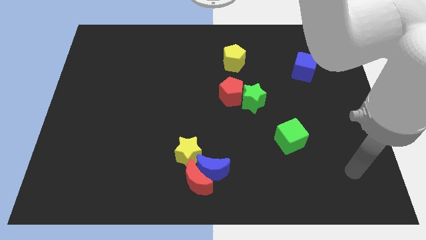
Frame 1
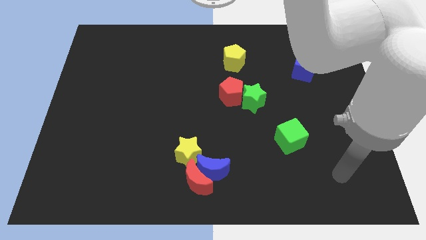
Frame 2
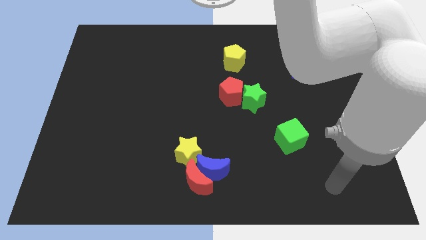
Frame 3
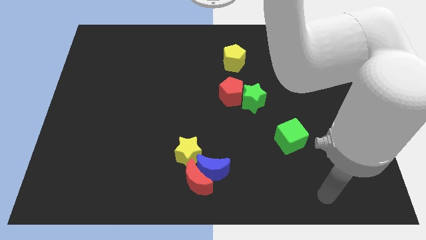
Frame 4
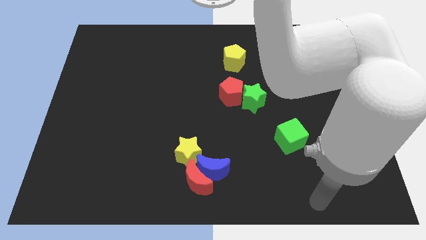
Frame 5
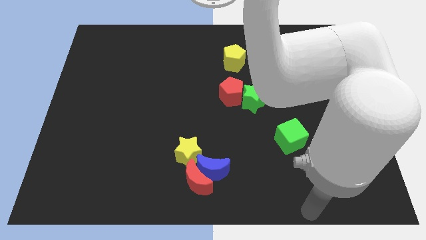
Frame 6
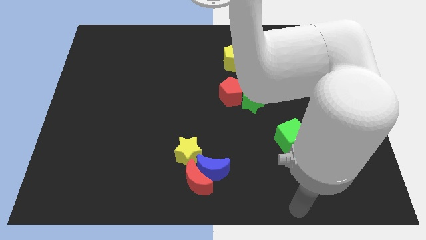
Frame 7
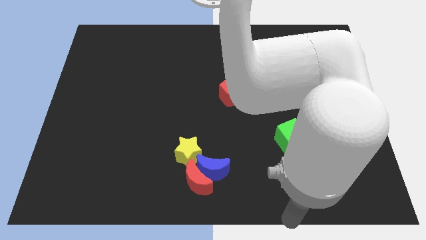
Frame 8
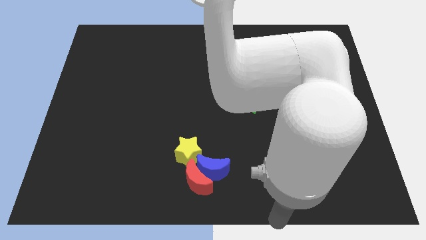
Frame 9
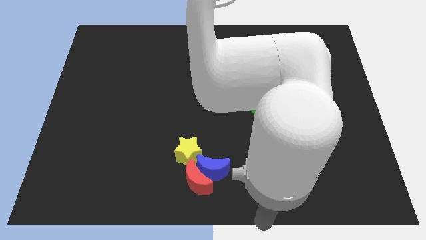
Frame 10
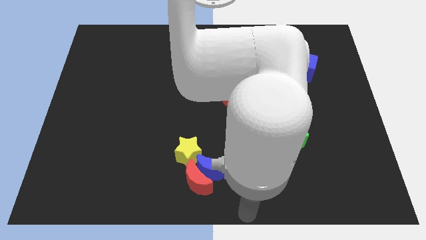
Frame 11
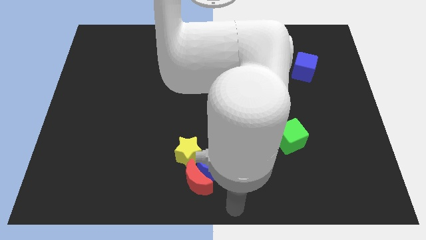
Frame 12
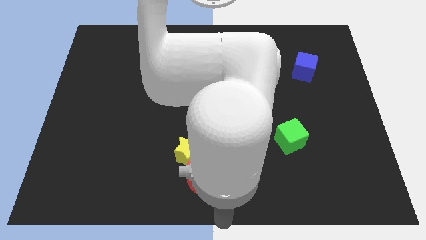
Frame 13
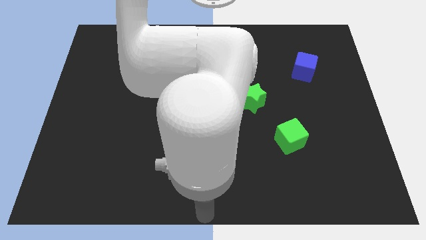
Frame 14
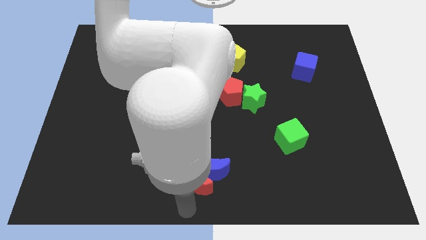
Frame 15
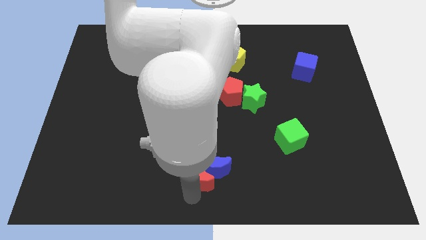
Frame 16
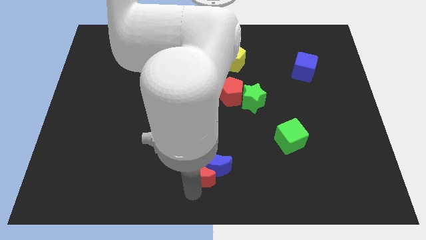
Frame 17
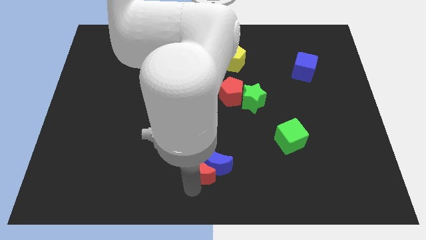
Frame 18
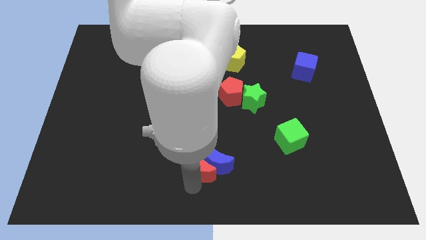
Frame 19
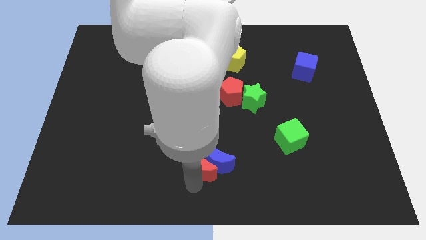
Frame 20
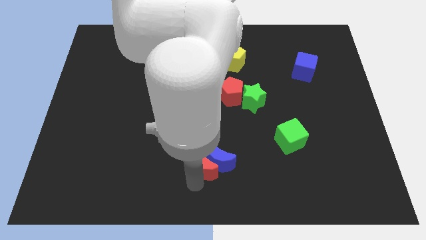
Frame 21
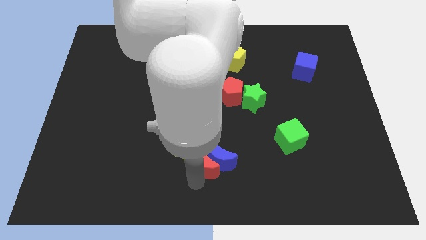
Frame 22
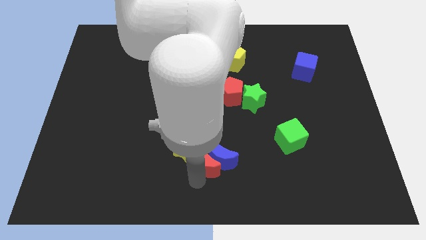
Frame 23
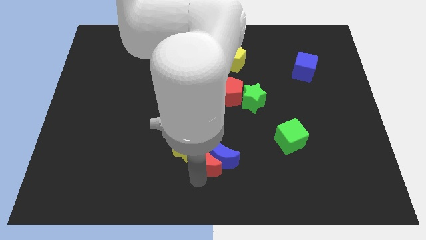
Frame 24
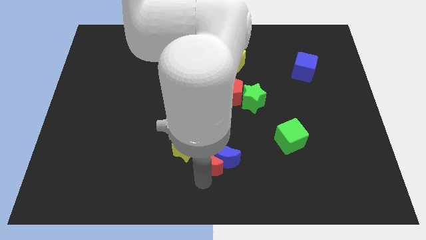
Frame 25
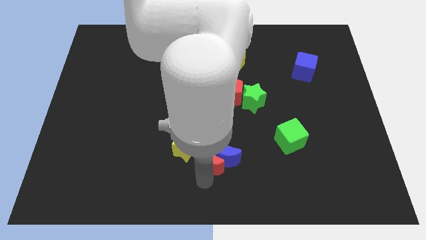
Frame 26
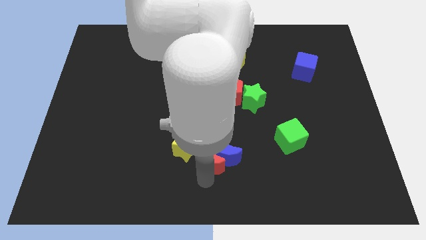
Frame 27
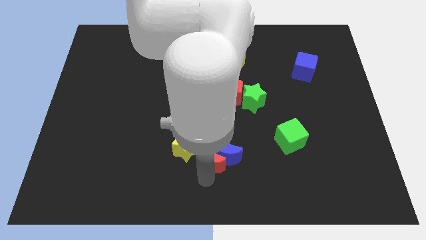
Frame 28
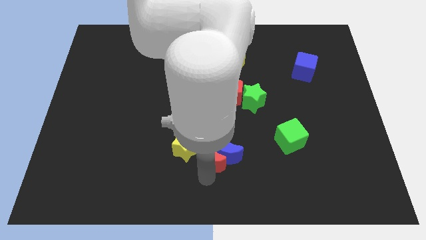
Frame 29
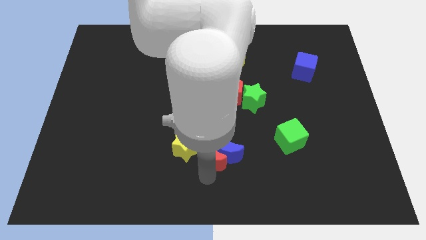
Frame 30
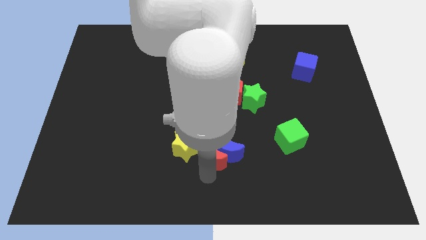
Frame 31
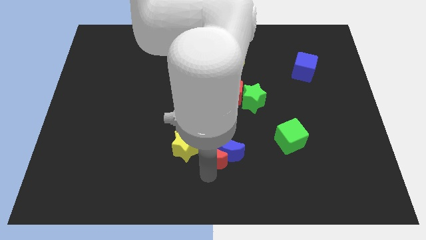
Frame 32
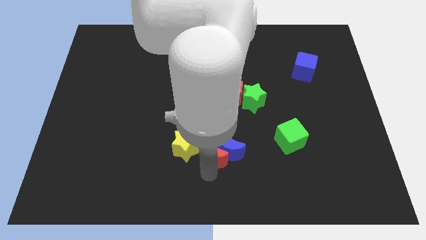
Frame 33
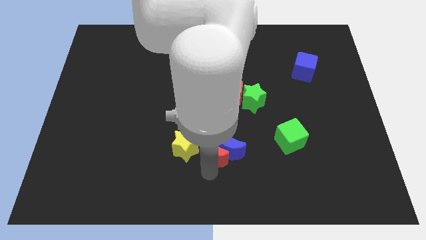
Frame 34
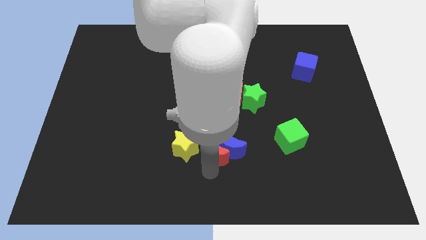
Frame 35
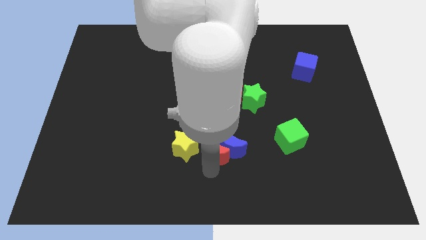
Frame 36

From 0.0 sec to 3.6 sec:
slightly move the blue moon diagonally upwards and to the right

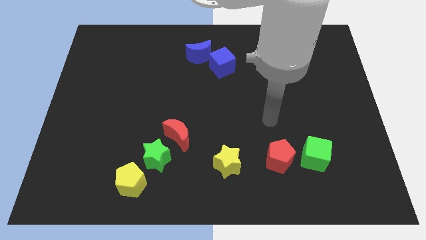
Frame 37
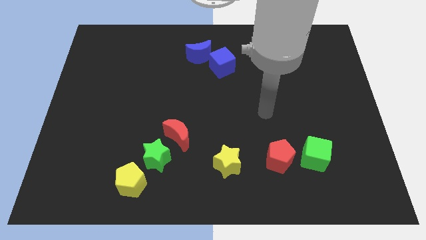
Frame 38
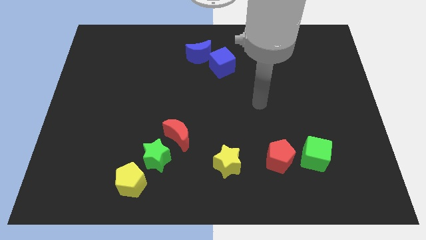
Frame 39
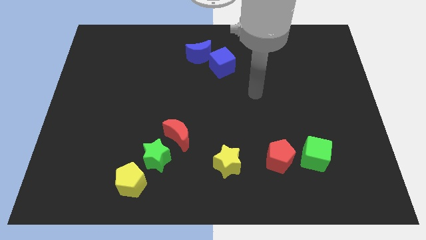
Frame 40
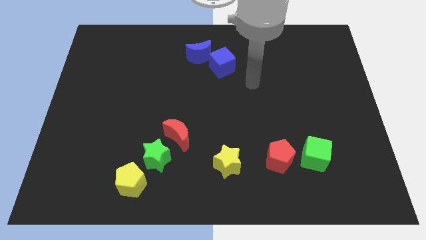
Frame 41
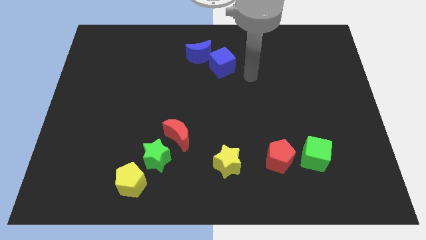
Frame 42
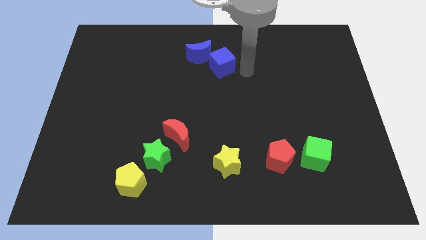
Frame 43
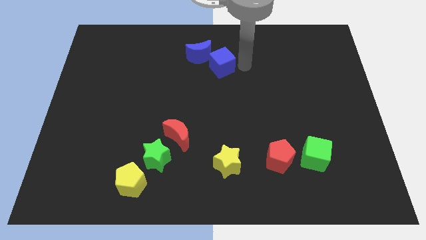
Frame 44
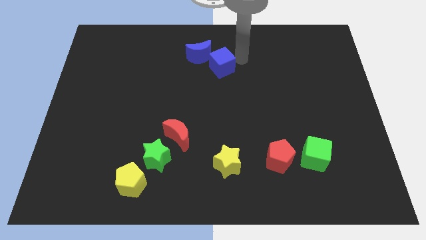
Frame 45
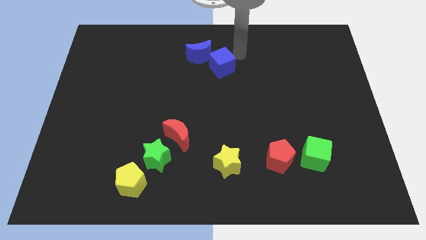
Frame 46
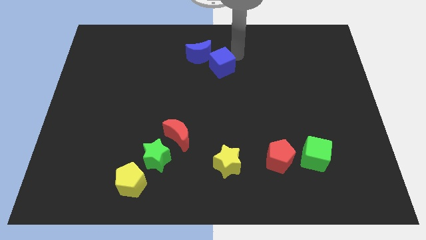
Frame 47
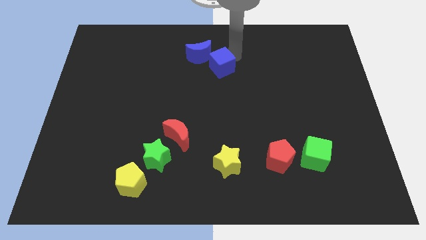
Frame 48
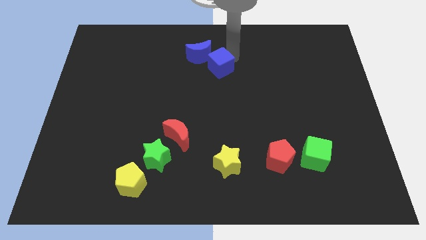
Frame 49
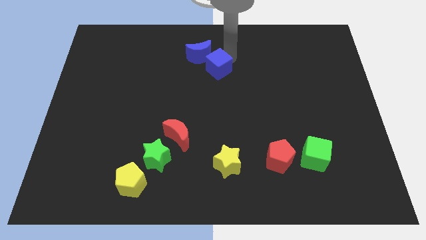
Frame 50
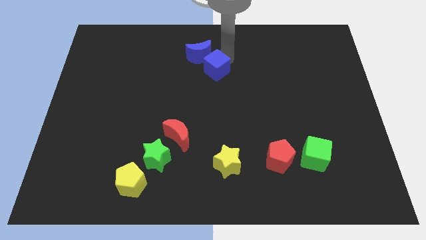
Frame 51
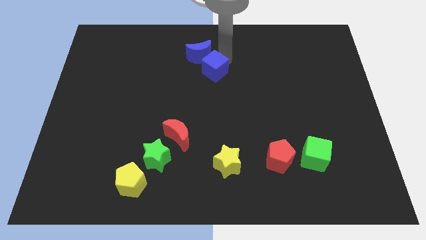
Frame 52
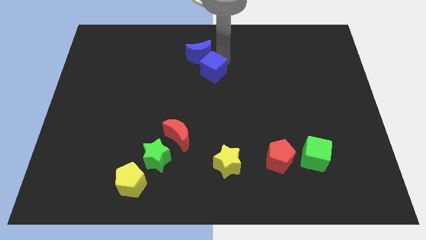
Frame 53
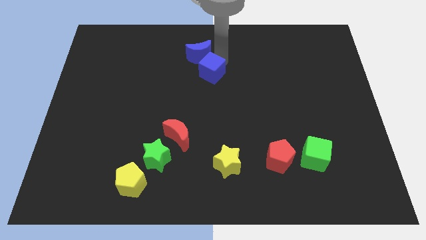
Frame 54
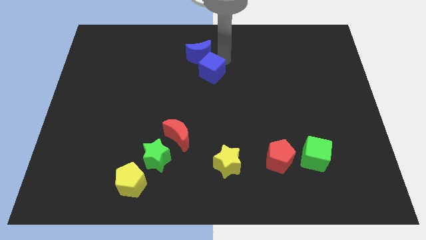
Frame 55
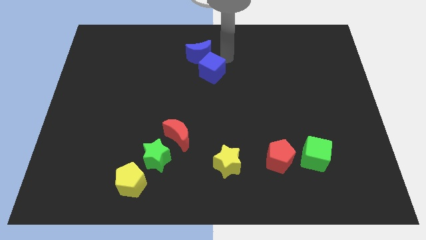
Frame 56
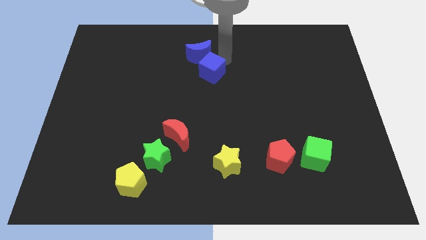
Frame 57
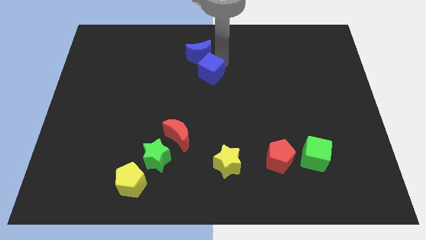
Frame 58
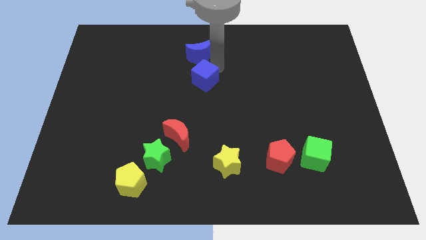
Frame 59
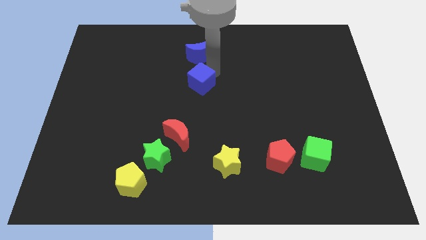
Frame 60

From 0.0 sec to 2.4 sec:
push the blue cube a bit downwards and then to the left

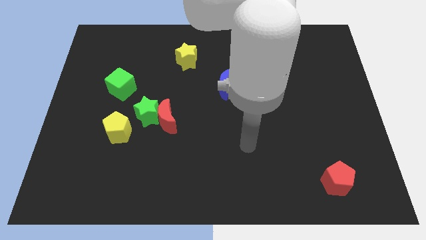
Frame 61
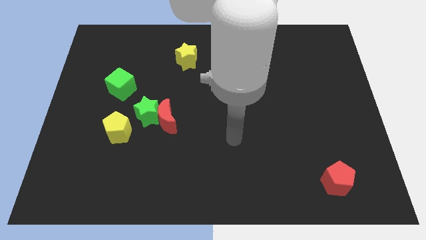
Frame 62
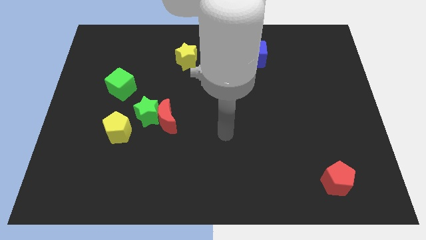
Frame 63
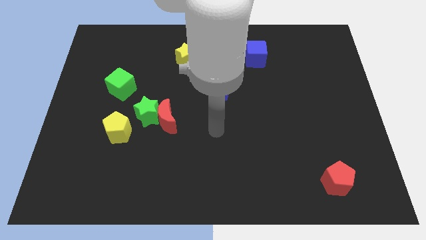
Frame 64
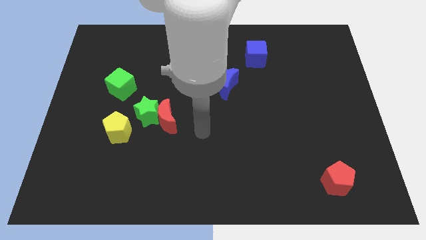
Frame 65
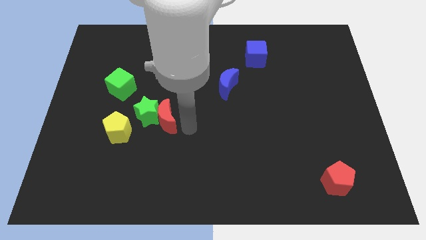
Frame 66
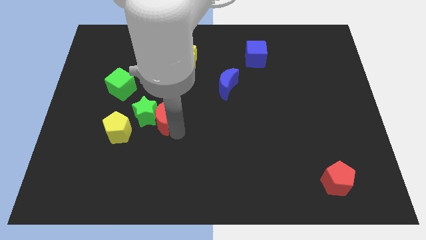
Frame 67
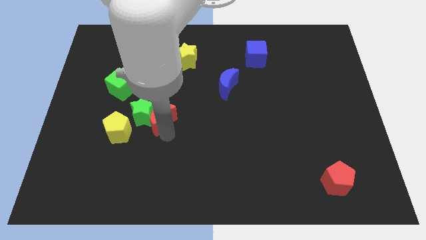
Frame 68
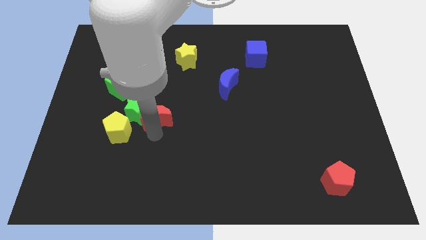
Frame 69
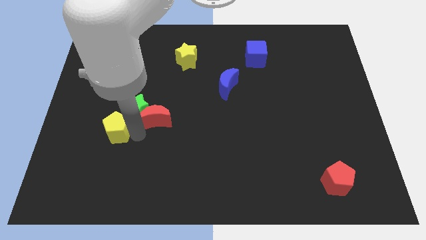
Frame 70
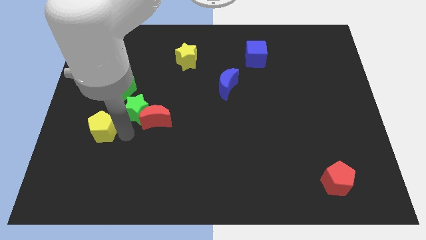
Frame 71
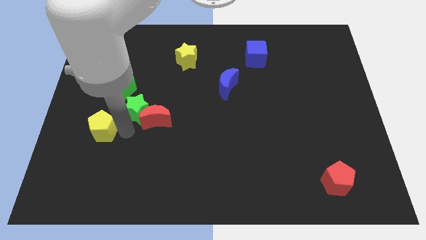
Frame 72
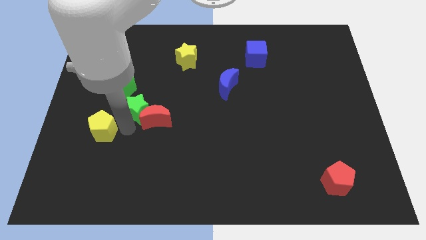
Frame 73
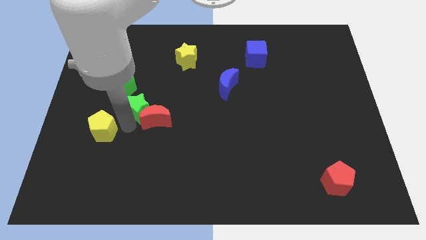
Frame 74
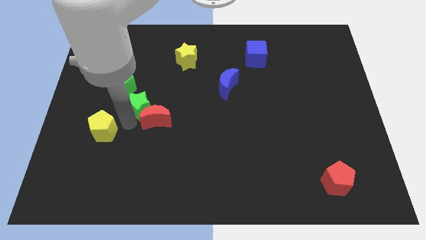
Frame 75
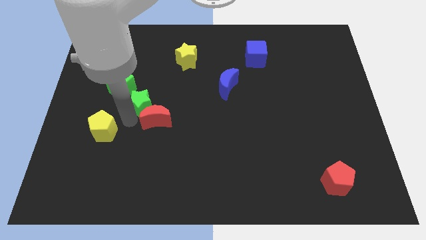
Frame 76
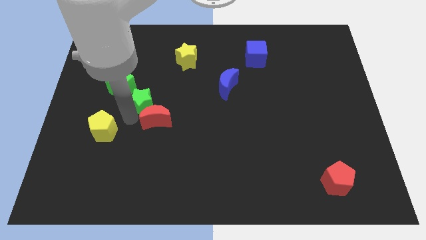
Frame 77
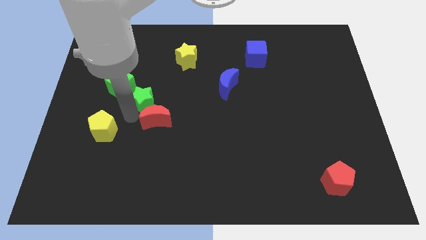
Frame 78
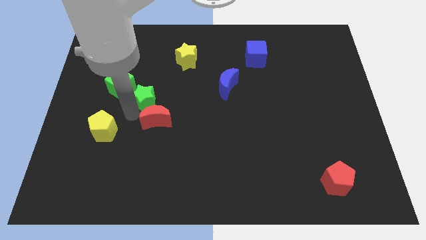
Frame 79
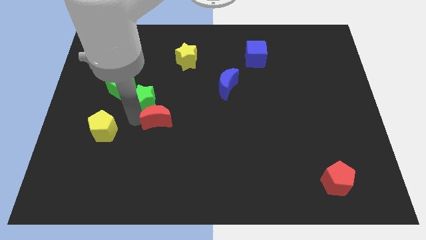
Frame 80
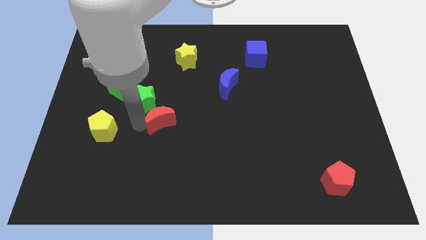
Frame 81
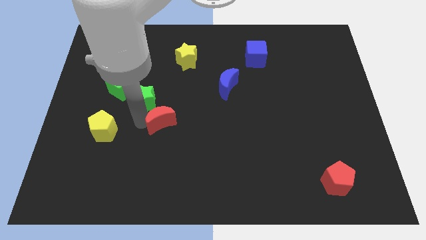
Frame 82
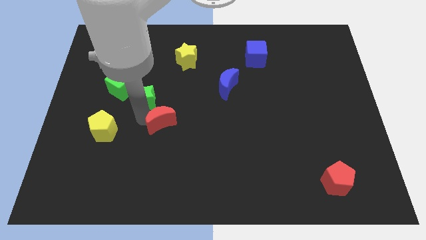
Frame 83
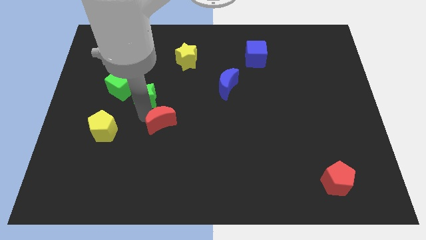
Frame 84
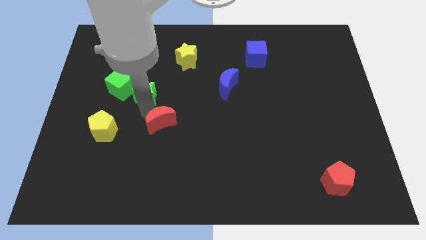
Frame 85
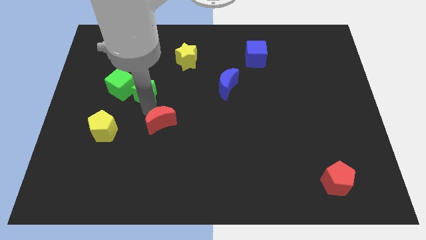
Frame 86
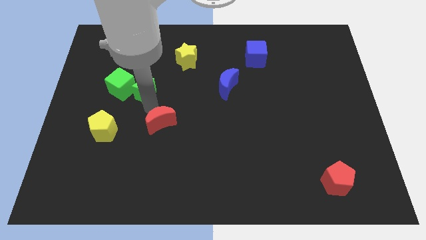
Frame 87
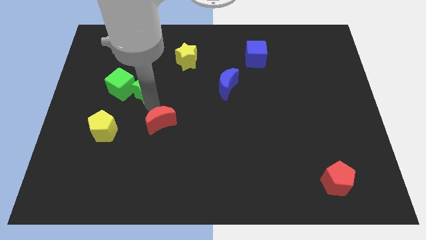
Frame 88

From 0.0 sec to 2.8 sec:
slightly slide the green star upwards
